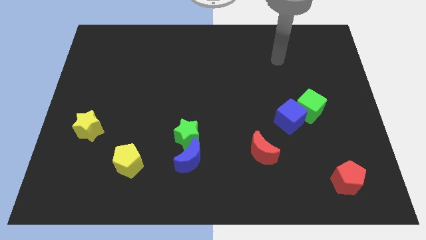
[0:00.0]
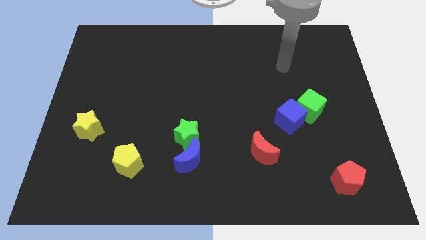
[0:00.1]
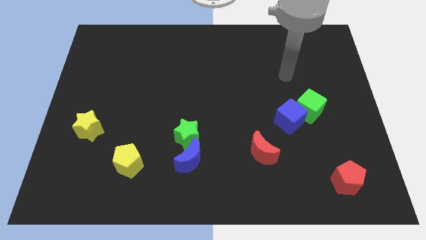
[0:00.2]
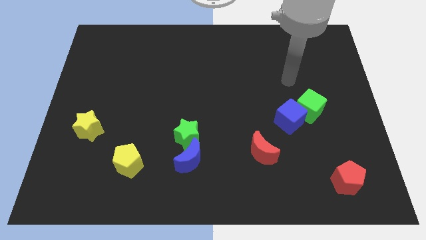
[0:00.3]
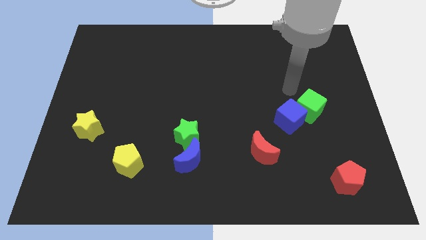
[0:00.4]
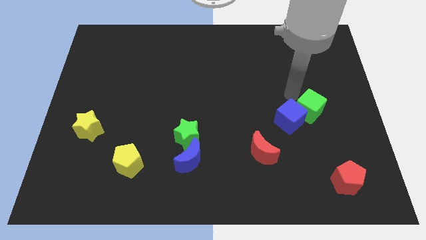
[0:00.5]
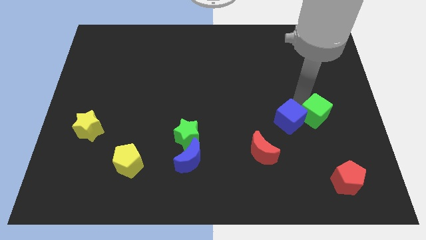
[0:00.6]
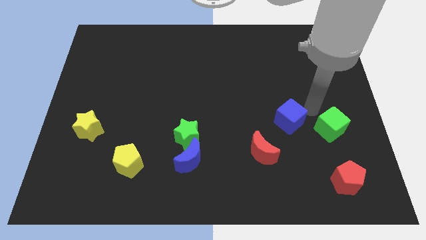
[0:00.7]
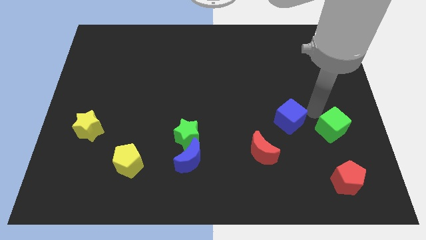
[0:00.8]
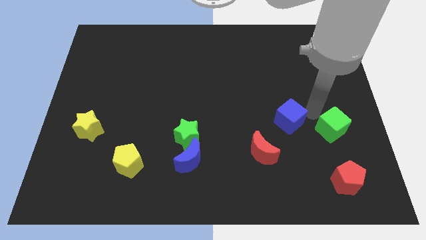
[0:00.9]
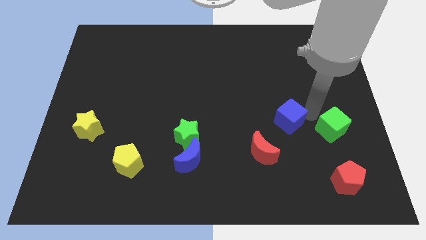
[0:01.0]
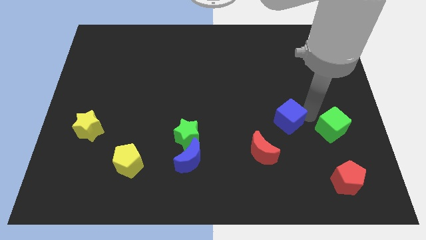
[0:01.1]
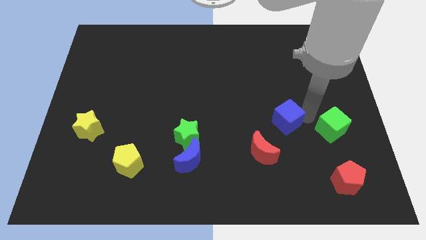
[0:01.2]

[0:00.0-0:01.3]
move the blue cube away from the green cube

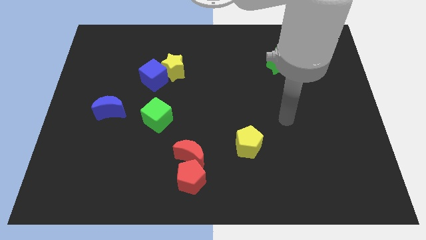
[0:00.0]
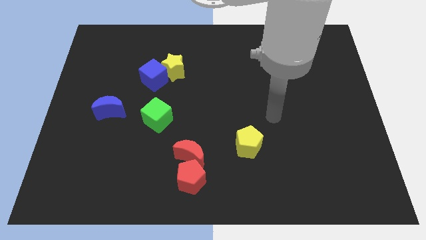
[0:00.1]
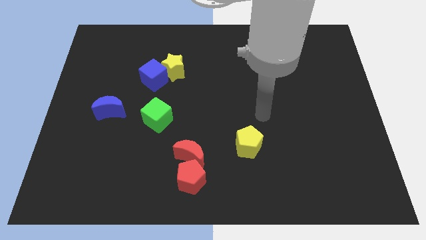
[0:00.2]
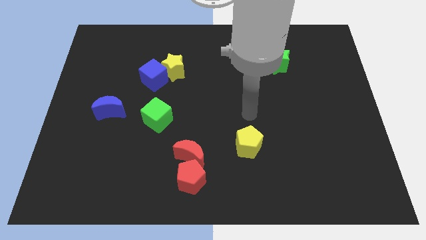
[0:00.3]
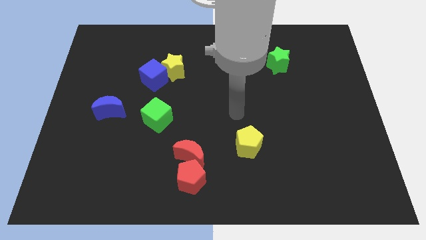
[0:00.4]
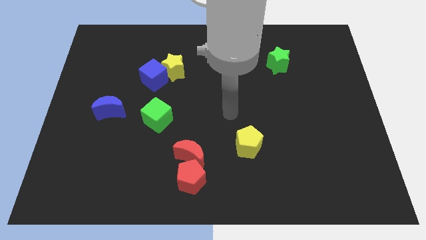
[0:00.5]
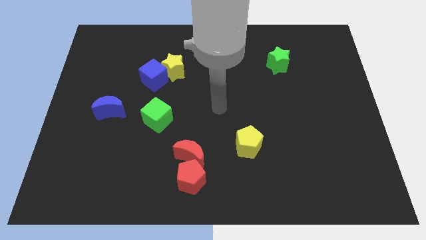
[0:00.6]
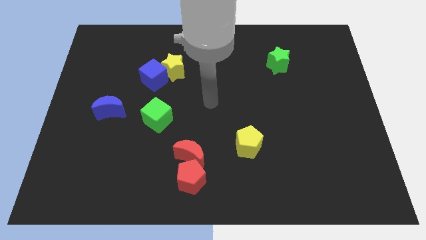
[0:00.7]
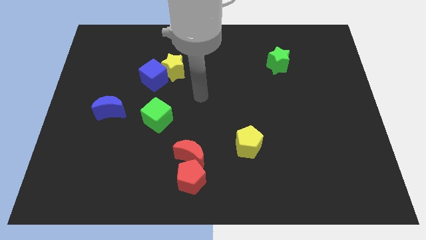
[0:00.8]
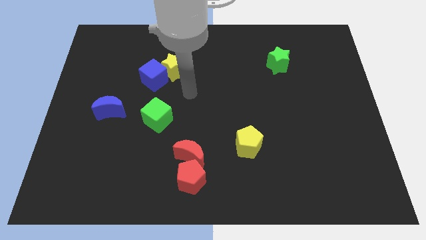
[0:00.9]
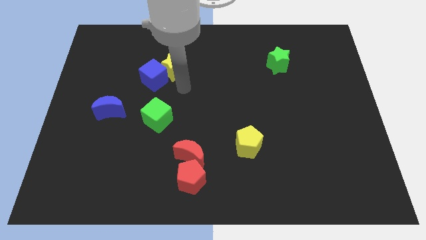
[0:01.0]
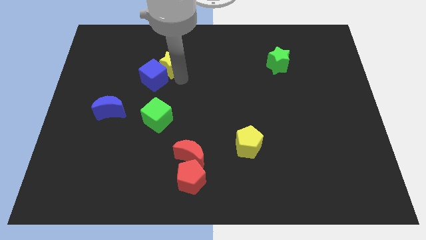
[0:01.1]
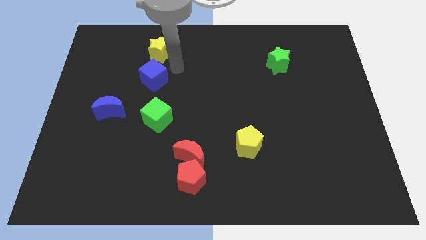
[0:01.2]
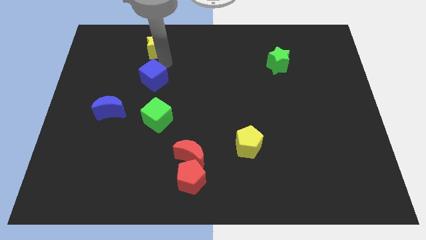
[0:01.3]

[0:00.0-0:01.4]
move the blue cube away from the yellow star

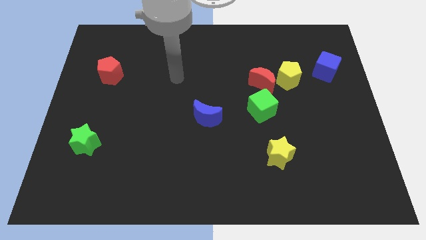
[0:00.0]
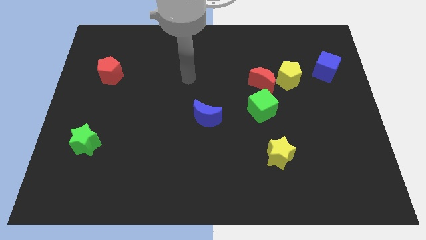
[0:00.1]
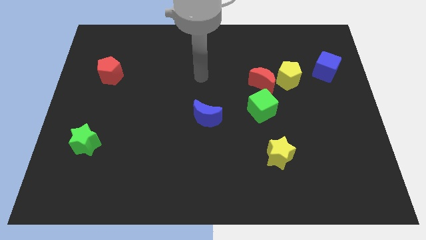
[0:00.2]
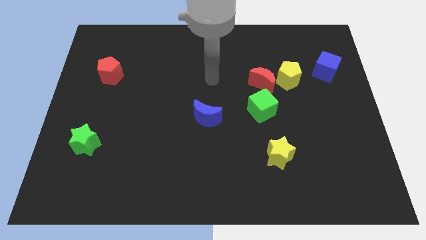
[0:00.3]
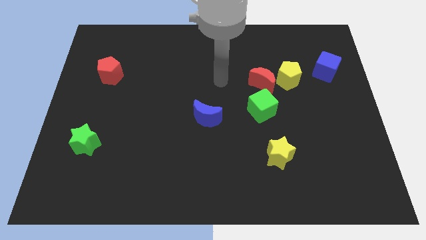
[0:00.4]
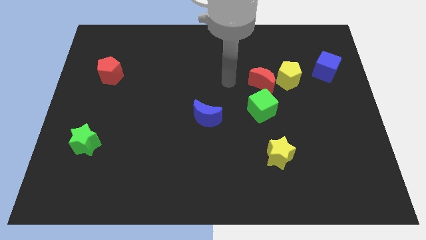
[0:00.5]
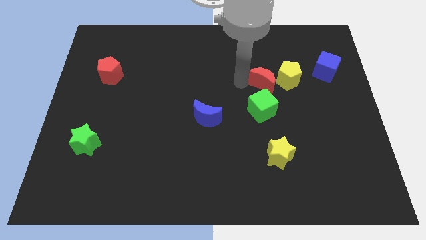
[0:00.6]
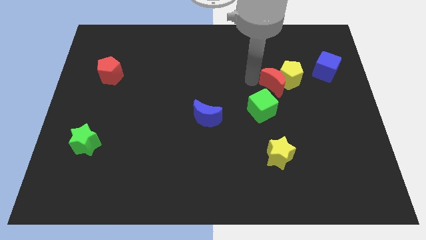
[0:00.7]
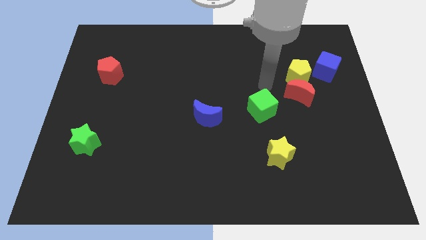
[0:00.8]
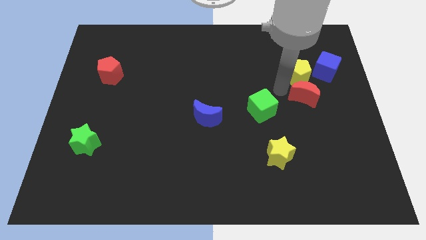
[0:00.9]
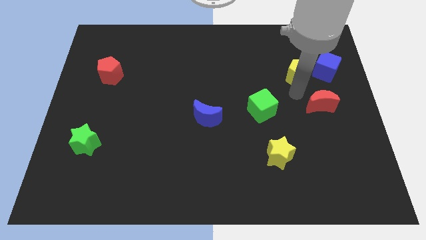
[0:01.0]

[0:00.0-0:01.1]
separate the yellow pentagon from the red moon

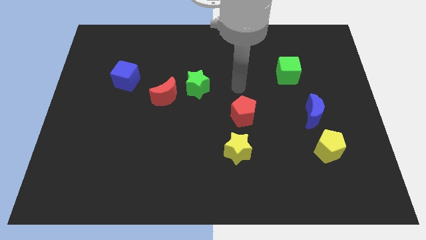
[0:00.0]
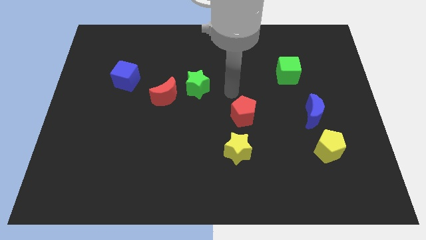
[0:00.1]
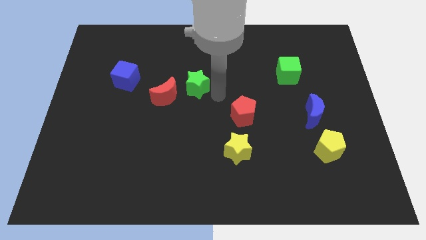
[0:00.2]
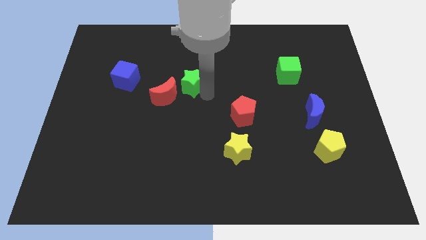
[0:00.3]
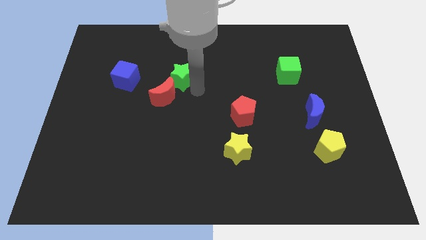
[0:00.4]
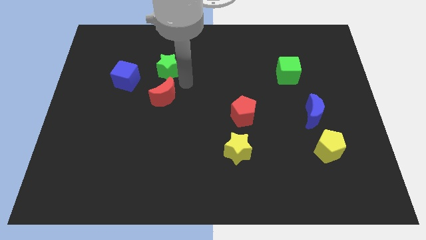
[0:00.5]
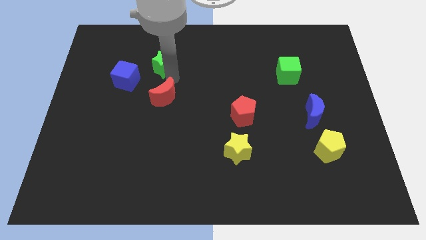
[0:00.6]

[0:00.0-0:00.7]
pull the red moon apart from the green star

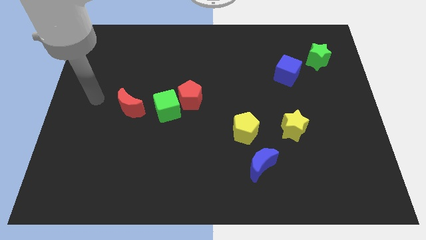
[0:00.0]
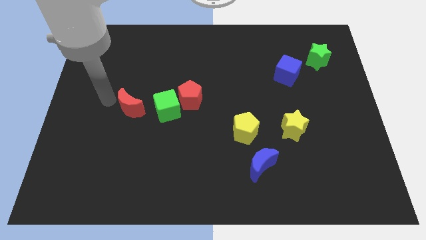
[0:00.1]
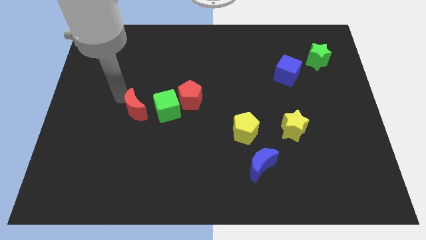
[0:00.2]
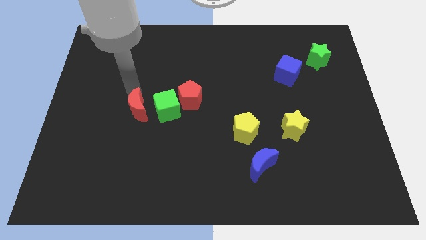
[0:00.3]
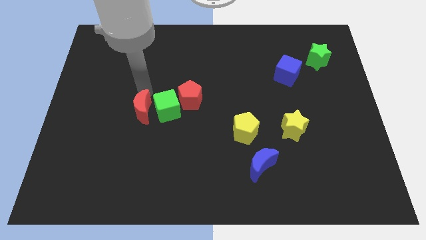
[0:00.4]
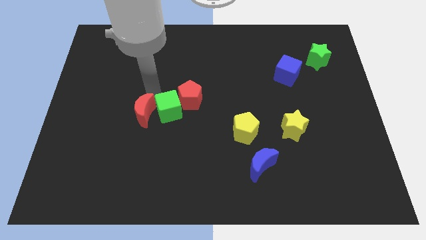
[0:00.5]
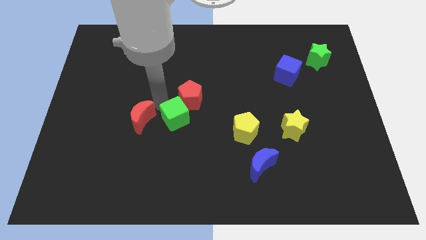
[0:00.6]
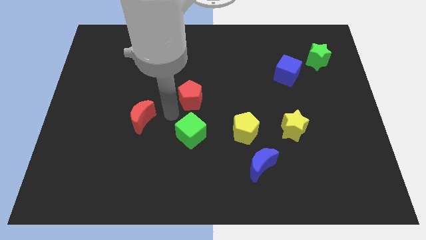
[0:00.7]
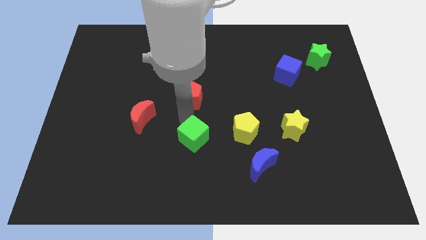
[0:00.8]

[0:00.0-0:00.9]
pull the red pentagon apart from the green cube

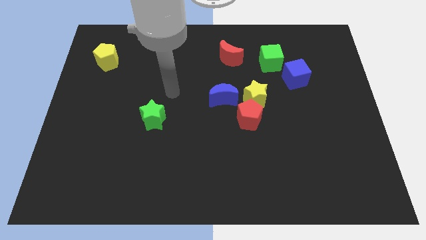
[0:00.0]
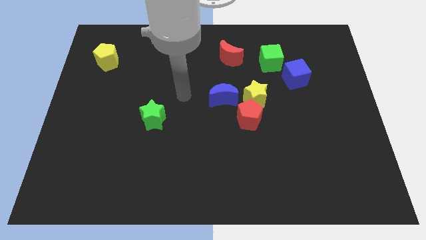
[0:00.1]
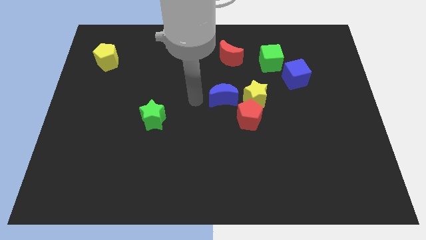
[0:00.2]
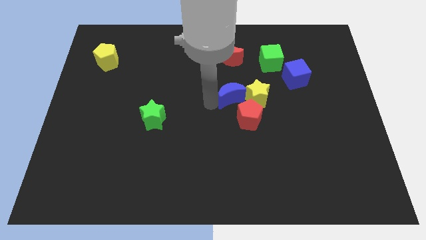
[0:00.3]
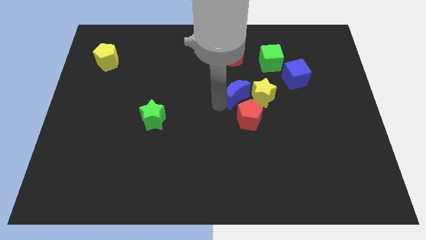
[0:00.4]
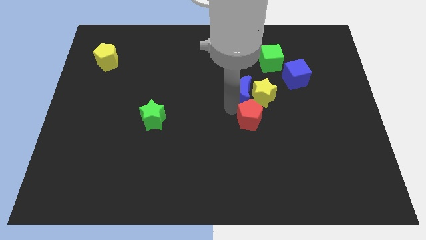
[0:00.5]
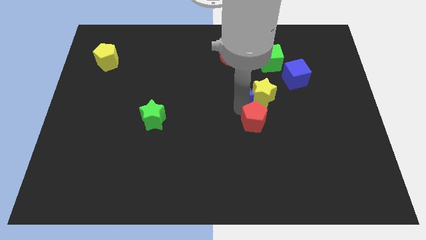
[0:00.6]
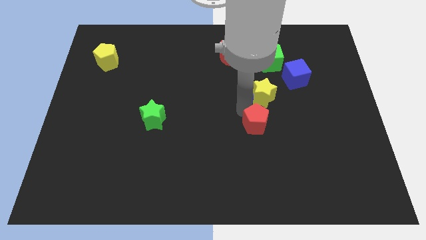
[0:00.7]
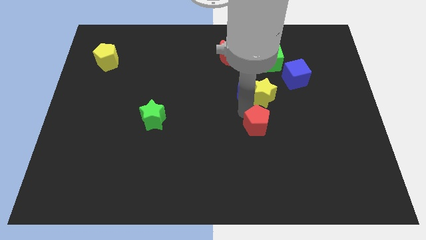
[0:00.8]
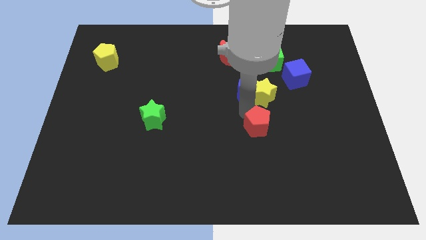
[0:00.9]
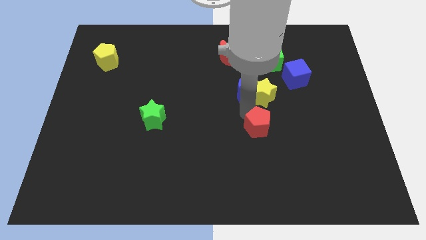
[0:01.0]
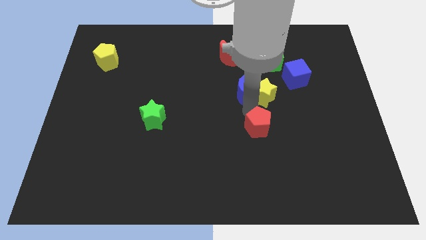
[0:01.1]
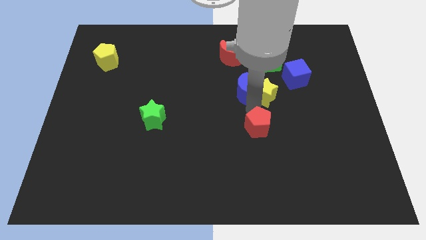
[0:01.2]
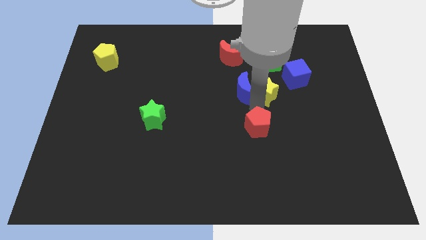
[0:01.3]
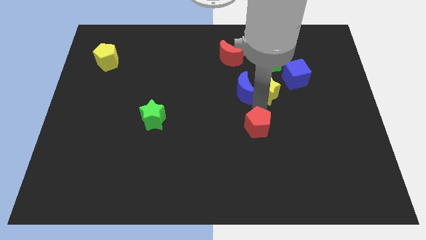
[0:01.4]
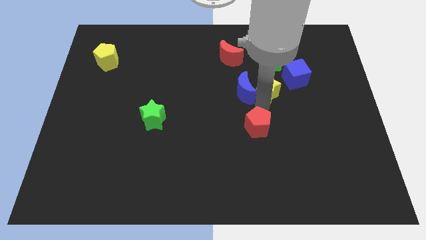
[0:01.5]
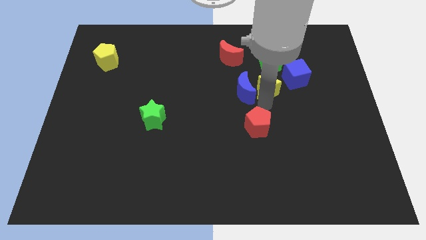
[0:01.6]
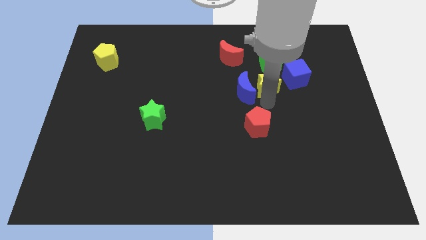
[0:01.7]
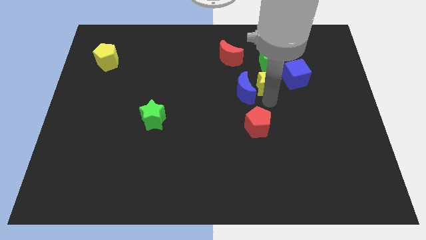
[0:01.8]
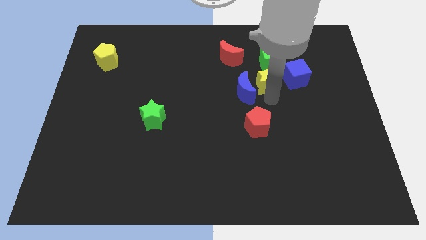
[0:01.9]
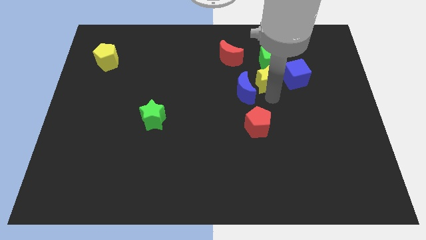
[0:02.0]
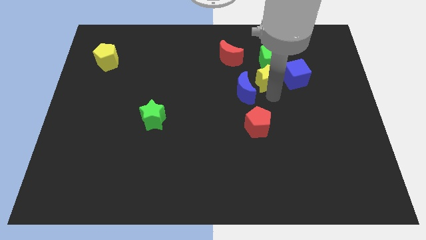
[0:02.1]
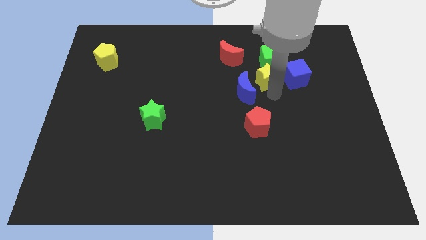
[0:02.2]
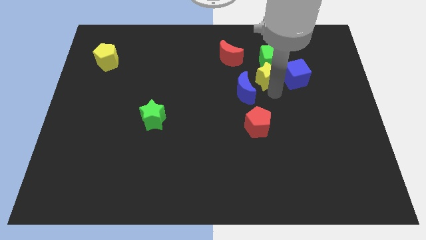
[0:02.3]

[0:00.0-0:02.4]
pull the yellow star apart from the red pentagon and blue moon

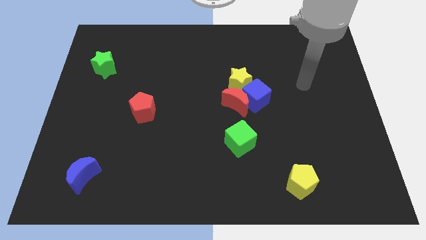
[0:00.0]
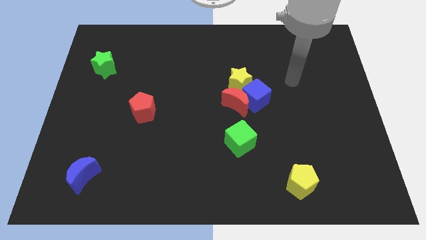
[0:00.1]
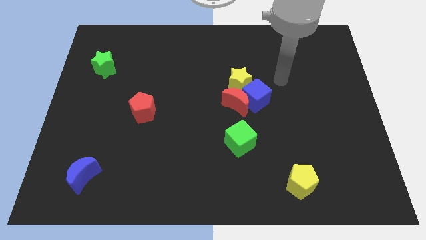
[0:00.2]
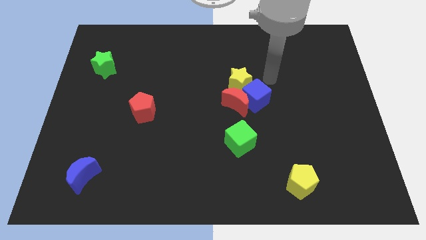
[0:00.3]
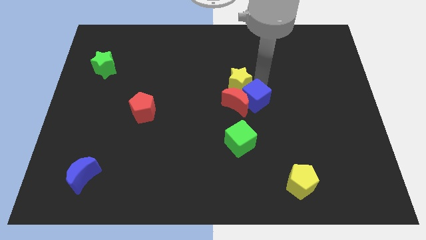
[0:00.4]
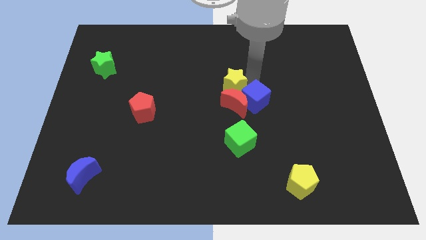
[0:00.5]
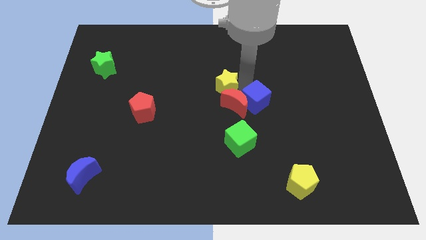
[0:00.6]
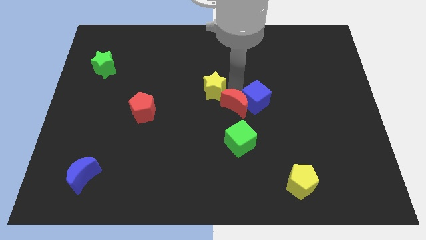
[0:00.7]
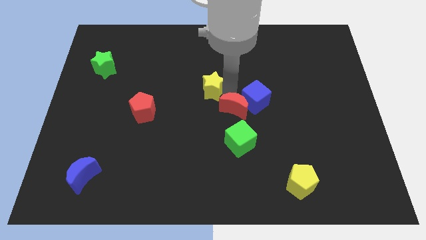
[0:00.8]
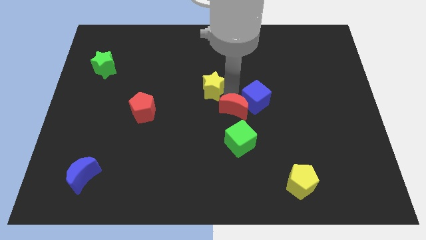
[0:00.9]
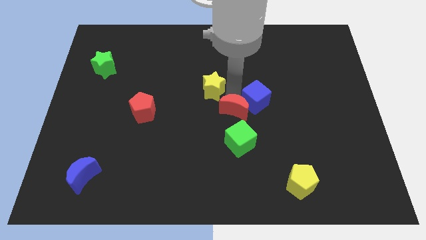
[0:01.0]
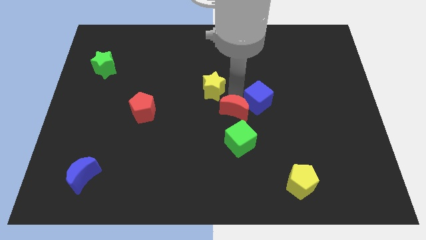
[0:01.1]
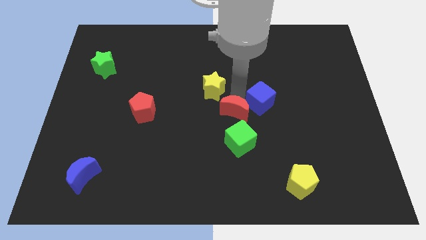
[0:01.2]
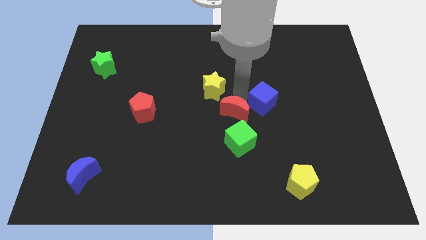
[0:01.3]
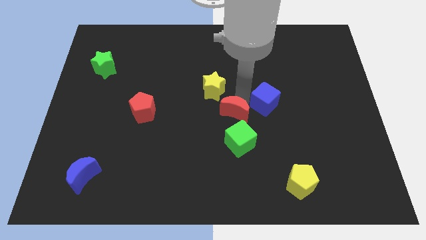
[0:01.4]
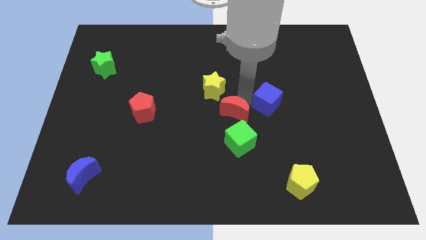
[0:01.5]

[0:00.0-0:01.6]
pull the blue cube apart from the red moon and yellow star
